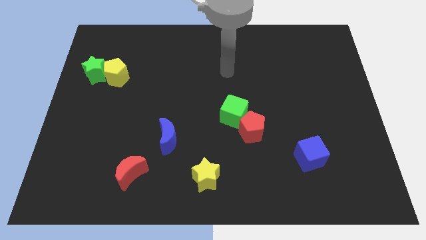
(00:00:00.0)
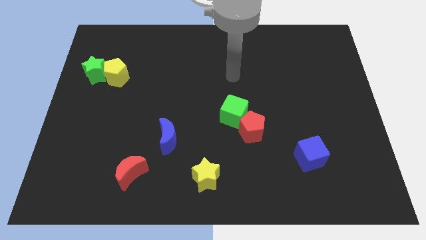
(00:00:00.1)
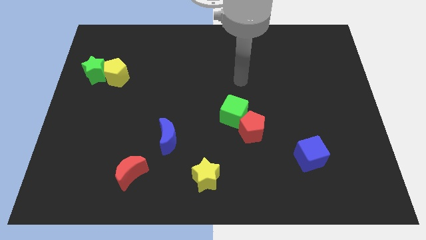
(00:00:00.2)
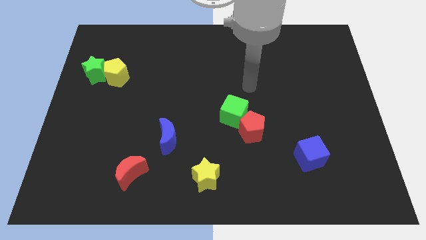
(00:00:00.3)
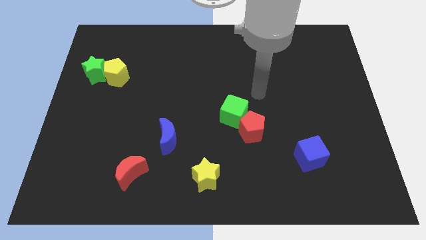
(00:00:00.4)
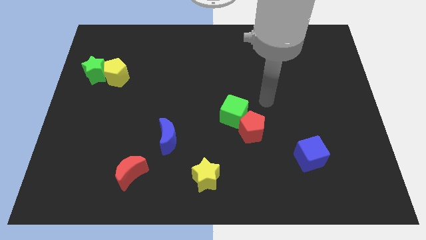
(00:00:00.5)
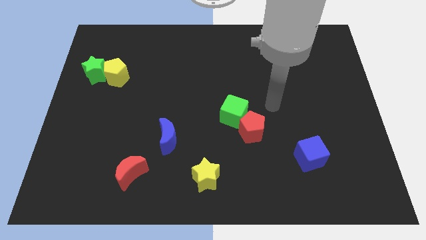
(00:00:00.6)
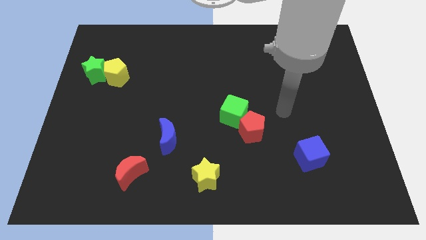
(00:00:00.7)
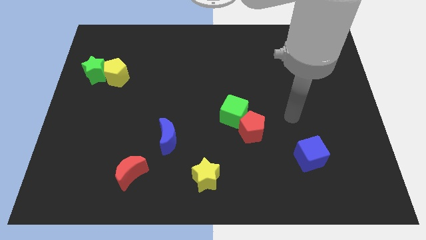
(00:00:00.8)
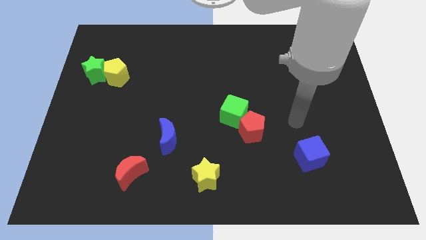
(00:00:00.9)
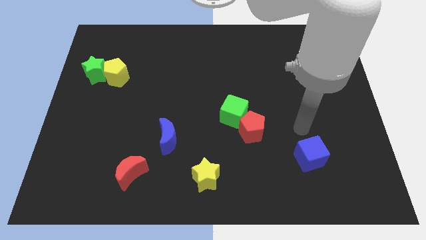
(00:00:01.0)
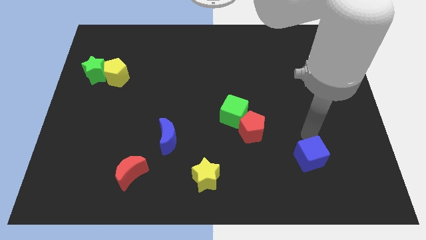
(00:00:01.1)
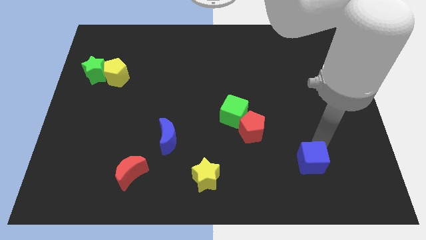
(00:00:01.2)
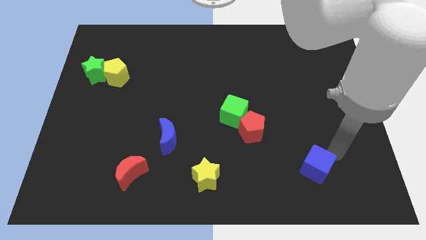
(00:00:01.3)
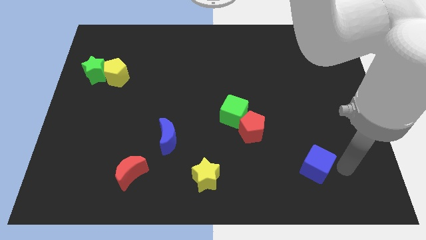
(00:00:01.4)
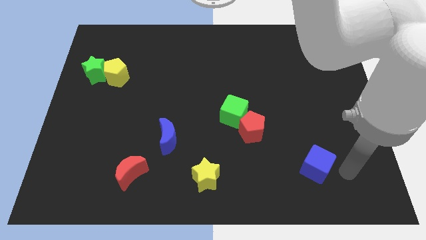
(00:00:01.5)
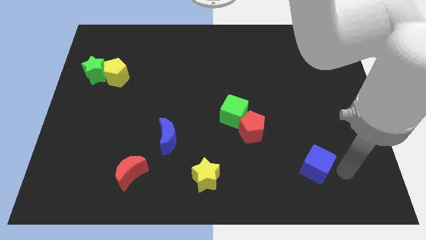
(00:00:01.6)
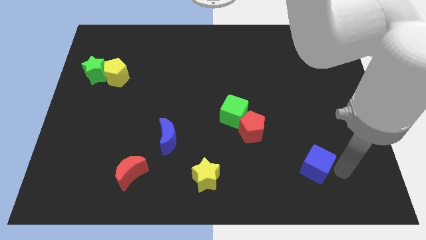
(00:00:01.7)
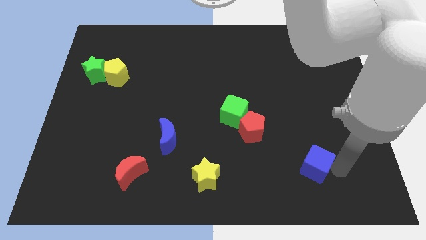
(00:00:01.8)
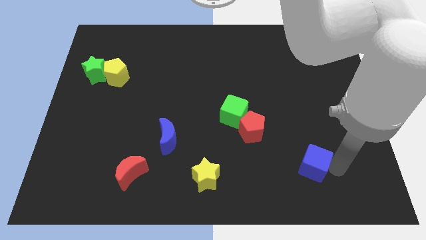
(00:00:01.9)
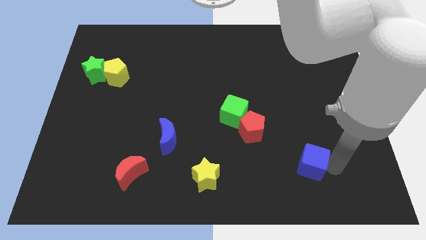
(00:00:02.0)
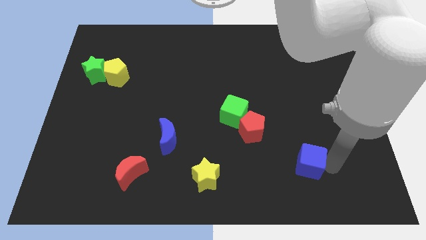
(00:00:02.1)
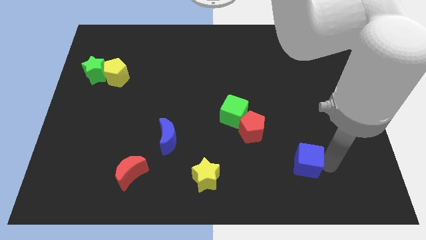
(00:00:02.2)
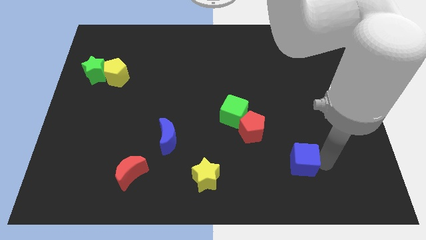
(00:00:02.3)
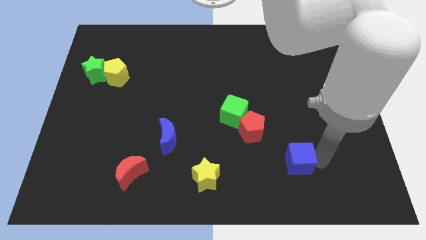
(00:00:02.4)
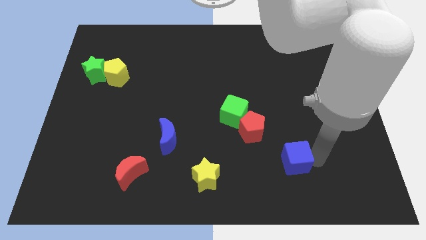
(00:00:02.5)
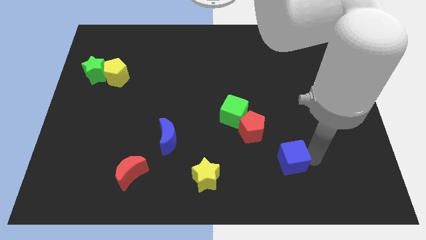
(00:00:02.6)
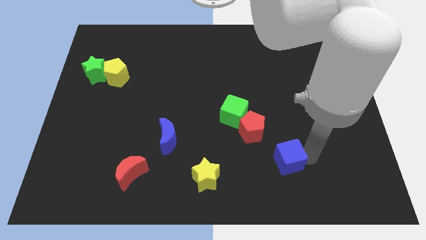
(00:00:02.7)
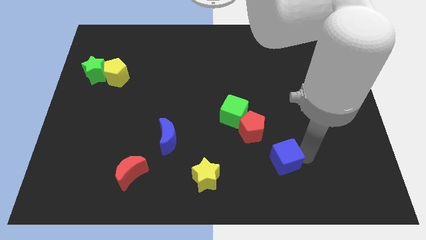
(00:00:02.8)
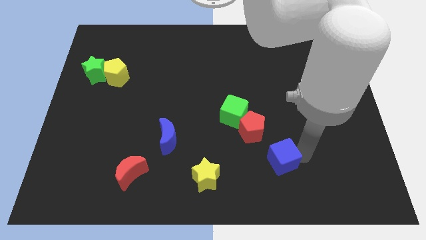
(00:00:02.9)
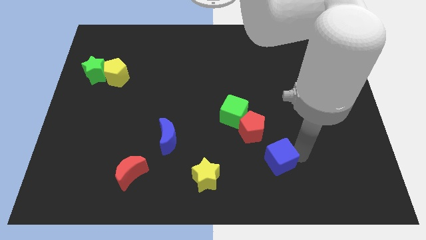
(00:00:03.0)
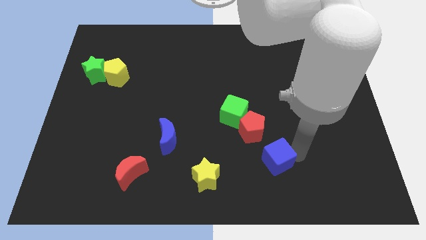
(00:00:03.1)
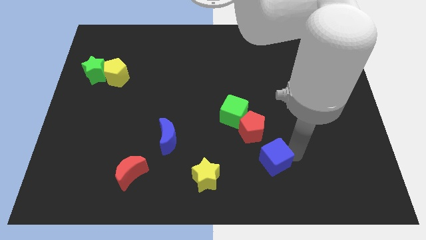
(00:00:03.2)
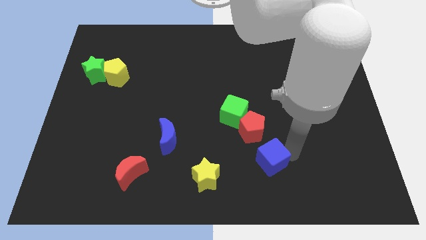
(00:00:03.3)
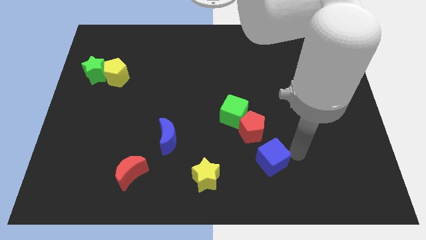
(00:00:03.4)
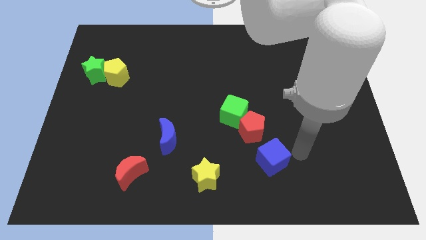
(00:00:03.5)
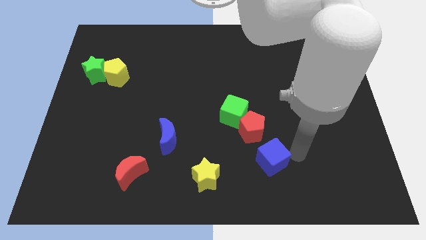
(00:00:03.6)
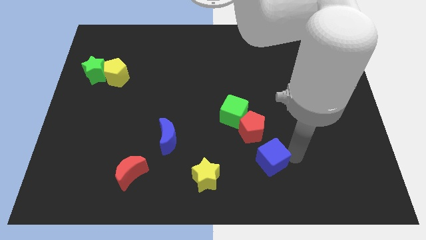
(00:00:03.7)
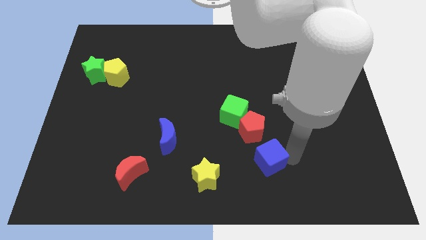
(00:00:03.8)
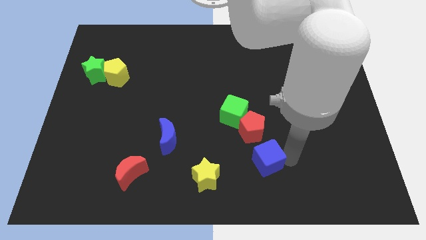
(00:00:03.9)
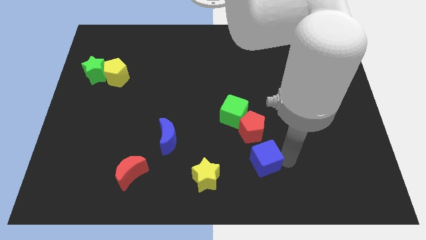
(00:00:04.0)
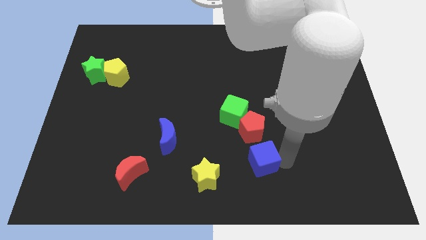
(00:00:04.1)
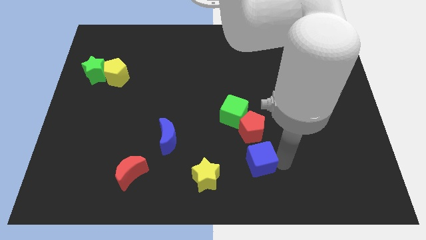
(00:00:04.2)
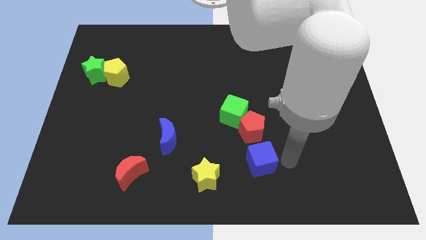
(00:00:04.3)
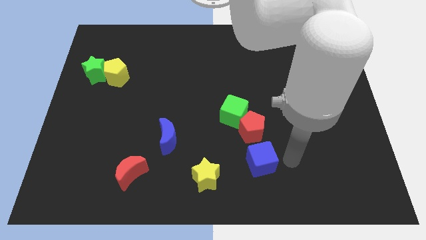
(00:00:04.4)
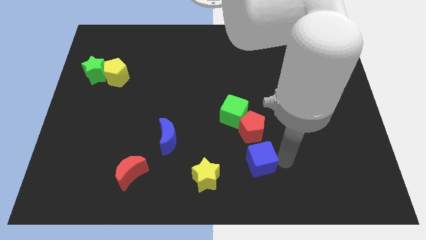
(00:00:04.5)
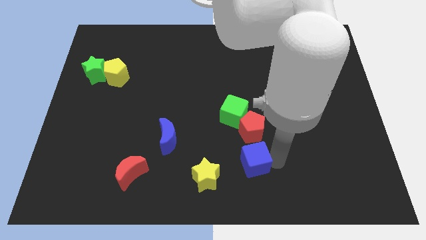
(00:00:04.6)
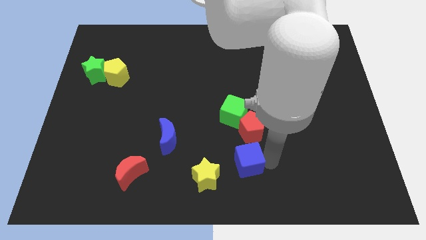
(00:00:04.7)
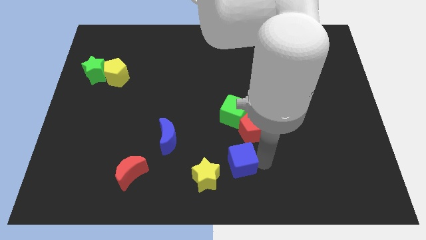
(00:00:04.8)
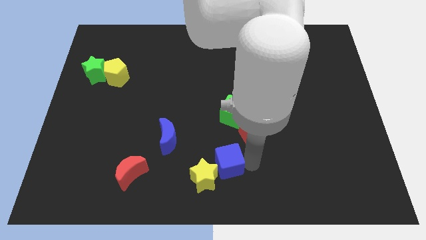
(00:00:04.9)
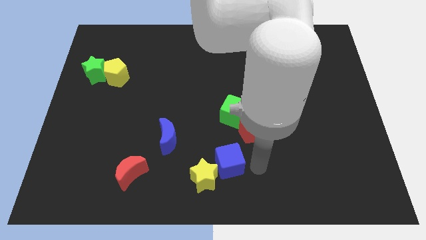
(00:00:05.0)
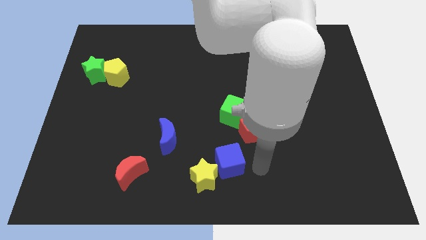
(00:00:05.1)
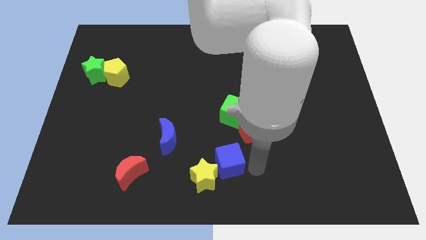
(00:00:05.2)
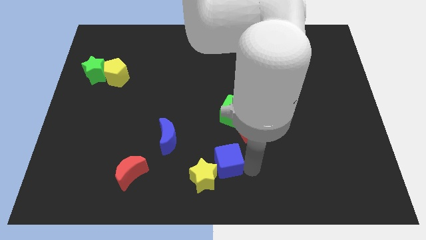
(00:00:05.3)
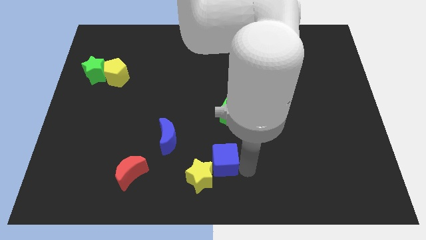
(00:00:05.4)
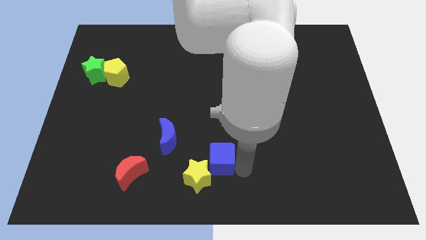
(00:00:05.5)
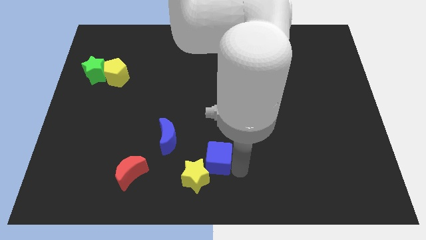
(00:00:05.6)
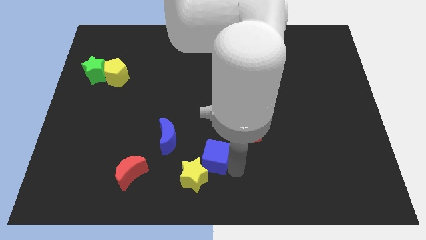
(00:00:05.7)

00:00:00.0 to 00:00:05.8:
slide the blue cube to the left

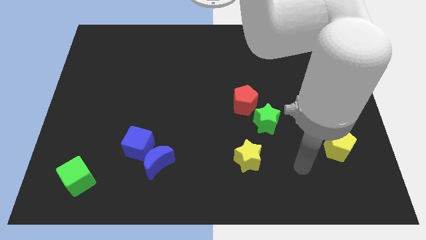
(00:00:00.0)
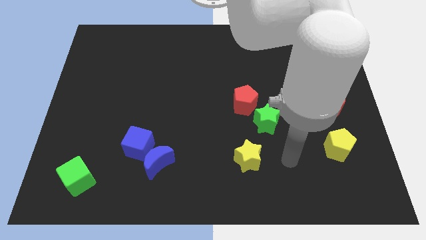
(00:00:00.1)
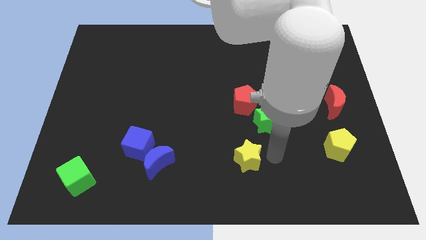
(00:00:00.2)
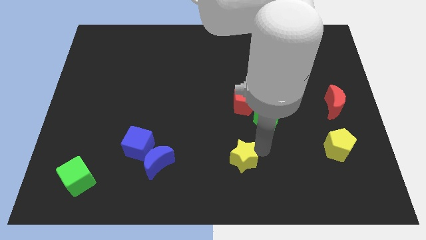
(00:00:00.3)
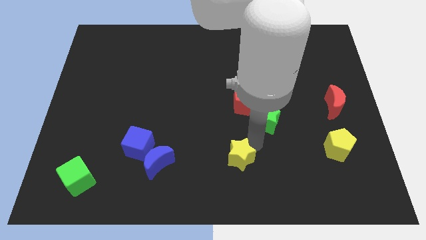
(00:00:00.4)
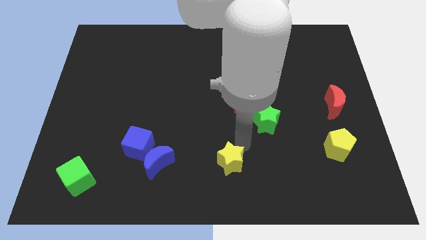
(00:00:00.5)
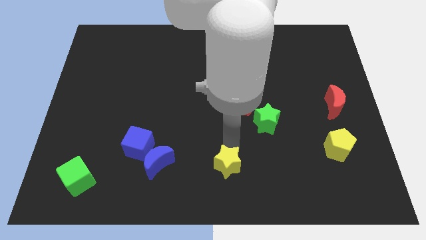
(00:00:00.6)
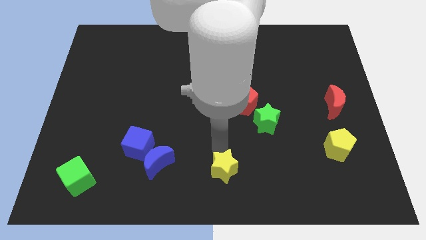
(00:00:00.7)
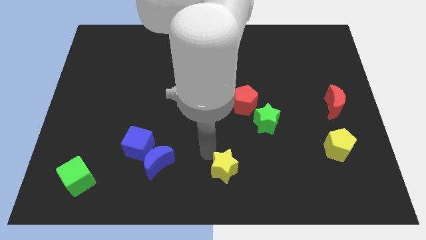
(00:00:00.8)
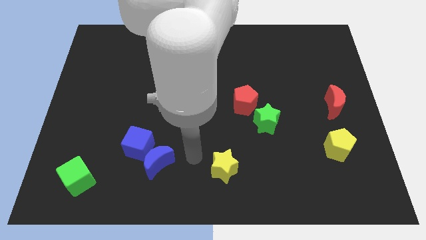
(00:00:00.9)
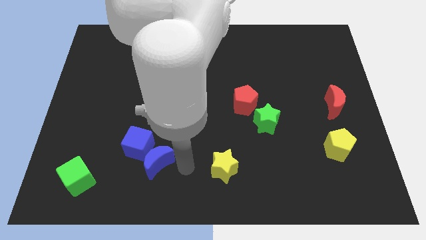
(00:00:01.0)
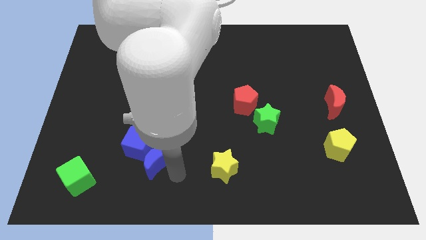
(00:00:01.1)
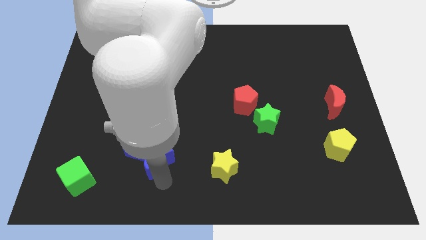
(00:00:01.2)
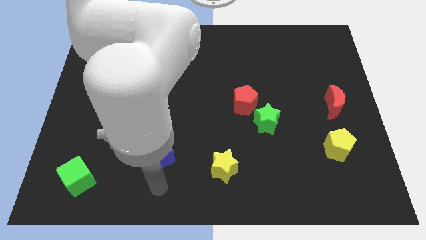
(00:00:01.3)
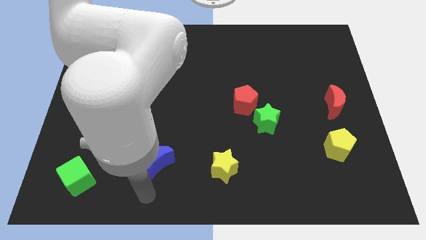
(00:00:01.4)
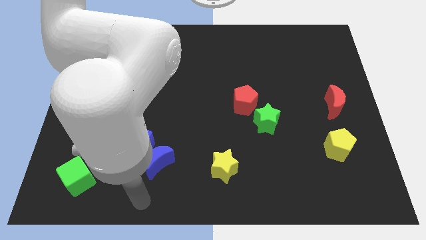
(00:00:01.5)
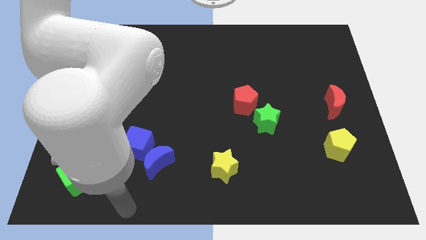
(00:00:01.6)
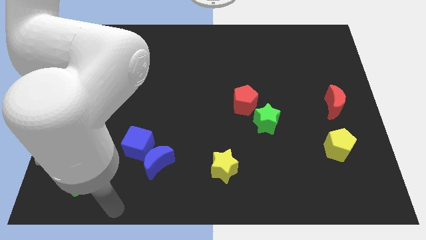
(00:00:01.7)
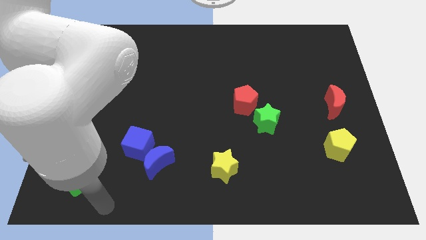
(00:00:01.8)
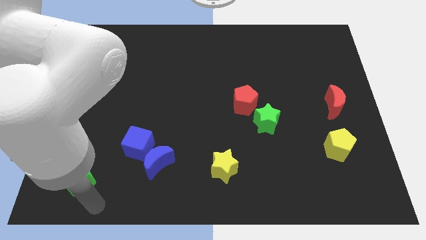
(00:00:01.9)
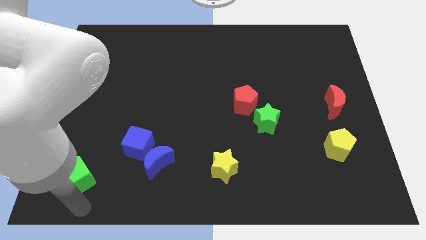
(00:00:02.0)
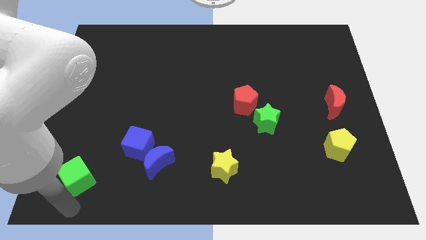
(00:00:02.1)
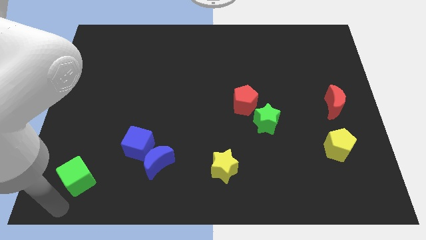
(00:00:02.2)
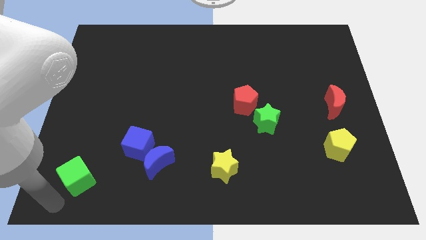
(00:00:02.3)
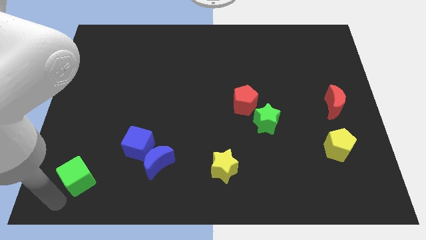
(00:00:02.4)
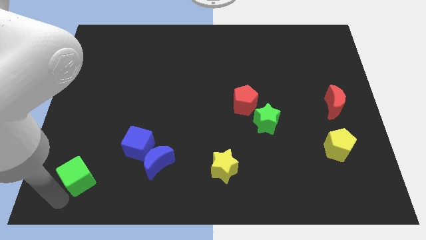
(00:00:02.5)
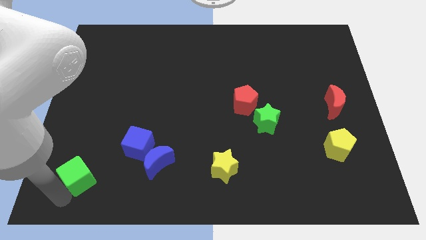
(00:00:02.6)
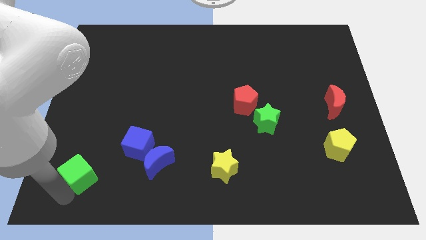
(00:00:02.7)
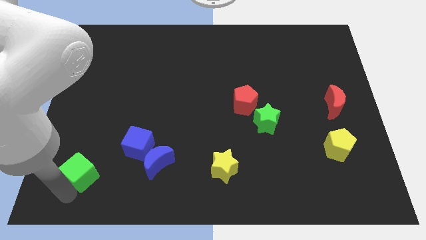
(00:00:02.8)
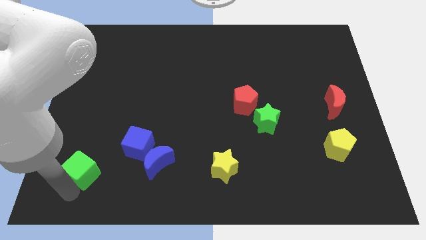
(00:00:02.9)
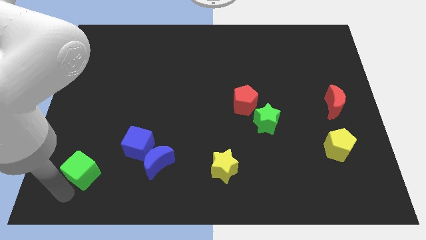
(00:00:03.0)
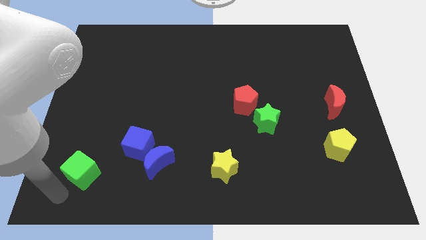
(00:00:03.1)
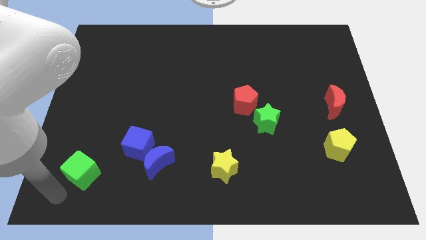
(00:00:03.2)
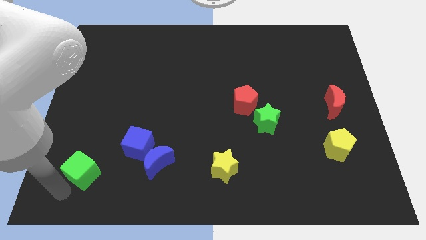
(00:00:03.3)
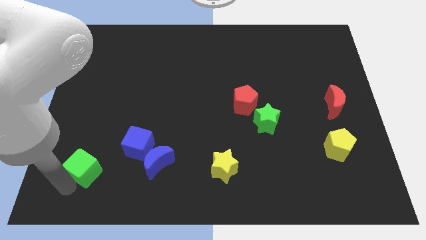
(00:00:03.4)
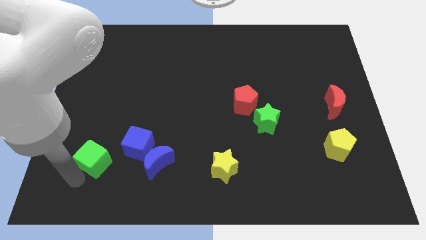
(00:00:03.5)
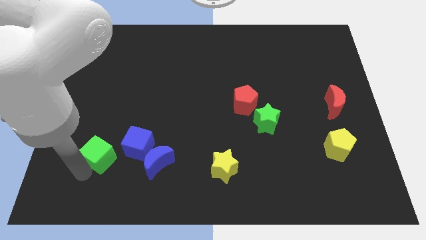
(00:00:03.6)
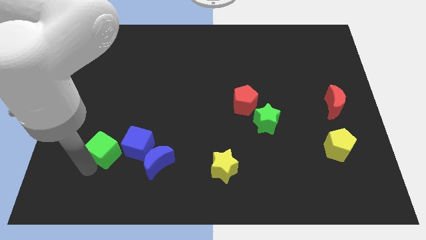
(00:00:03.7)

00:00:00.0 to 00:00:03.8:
push the green cube somewhat up and then to the right
